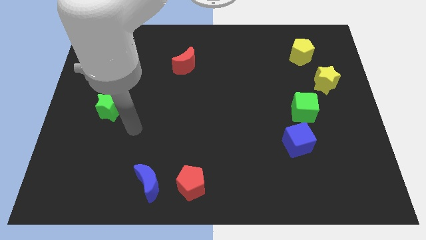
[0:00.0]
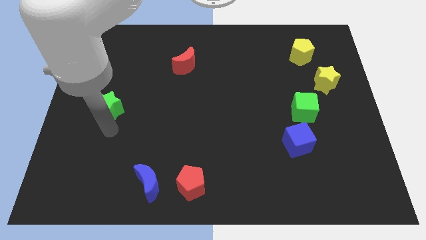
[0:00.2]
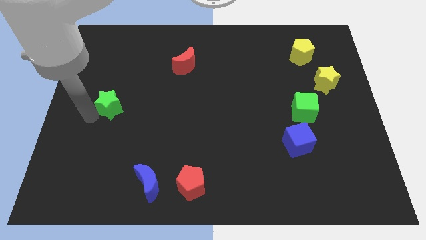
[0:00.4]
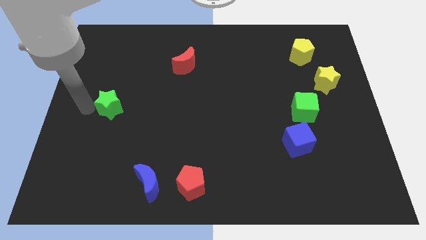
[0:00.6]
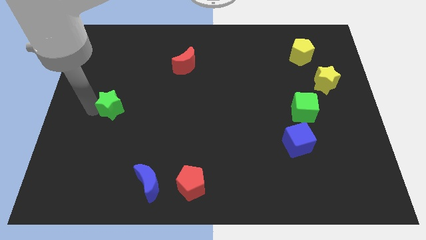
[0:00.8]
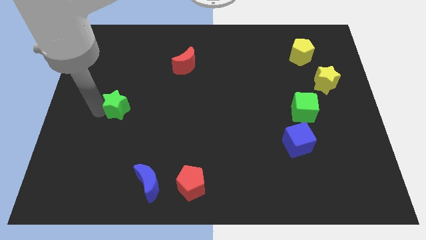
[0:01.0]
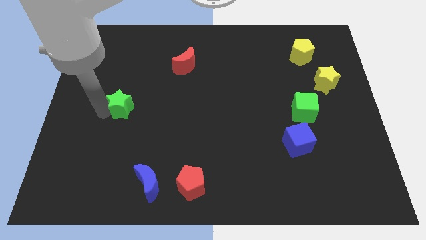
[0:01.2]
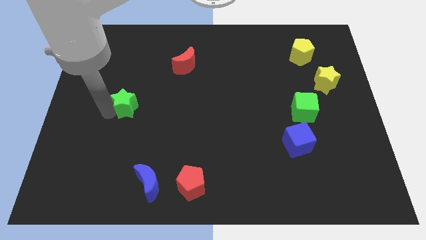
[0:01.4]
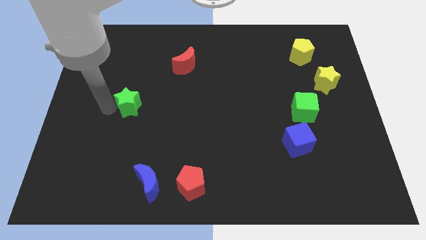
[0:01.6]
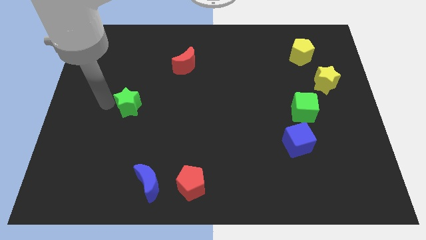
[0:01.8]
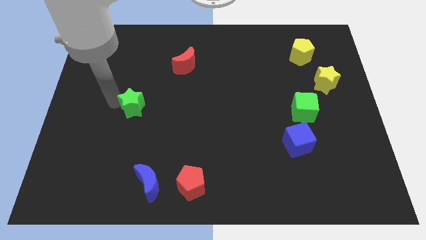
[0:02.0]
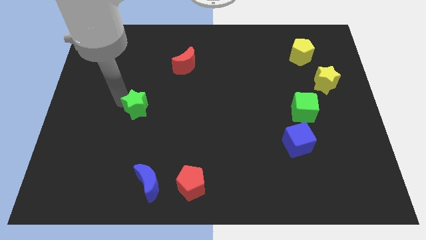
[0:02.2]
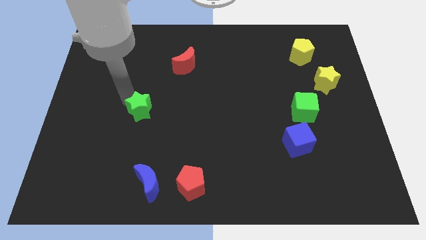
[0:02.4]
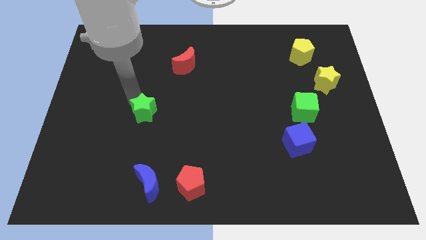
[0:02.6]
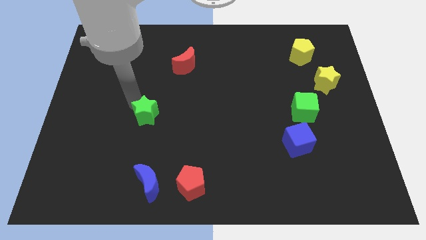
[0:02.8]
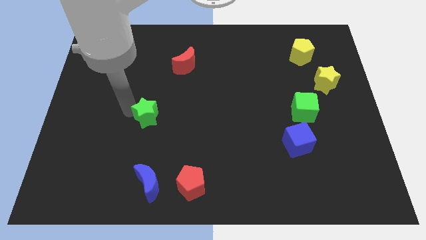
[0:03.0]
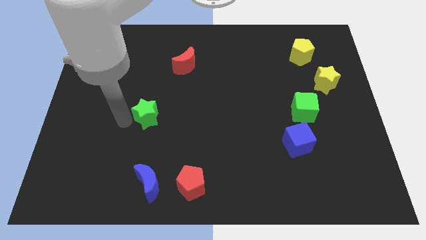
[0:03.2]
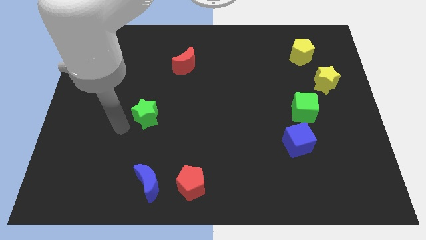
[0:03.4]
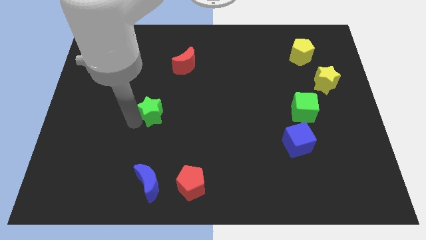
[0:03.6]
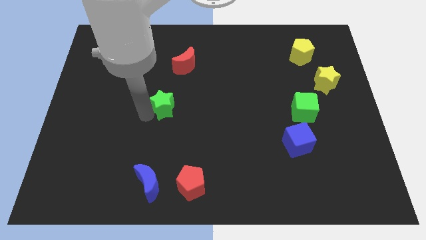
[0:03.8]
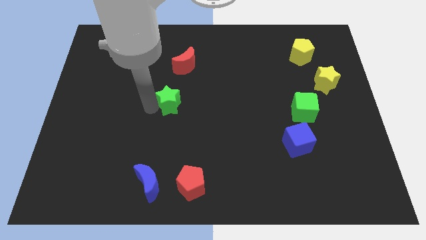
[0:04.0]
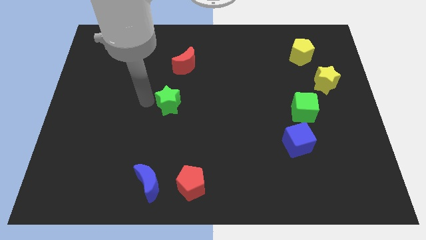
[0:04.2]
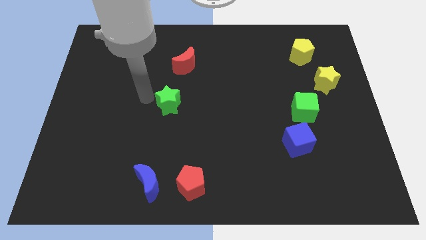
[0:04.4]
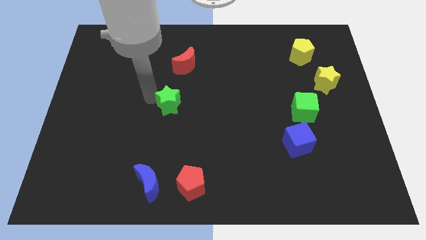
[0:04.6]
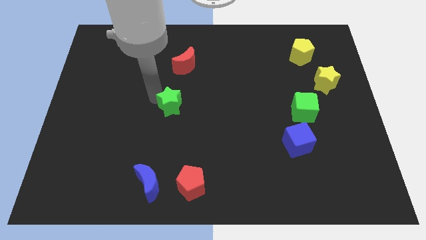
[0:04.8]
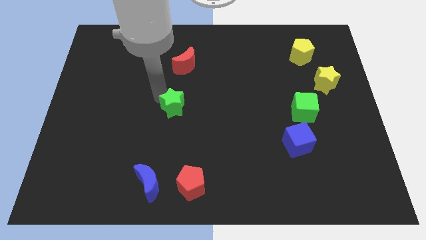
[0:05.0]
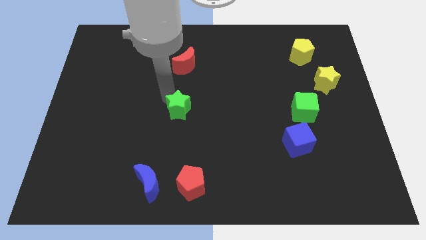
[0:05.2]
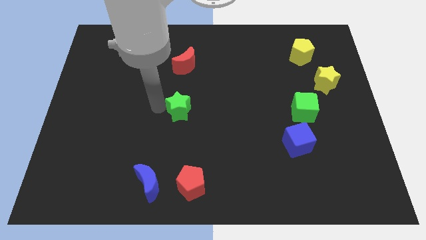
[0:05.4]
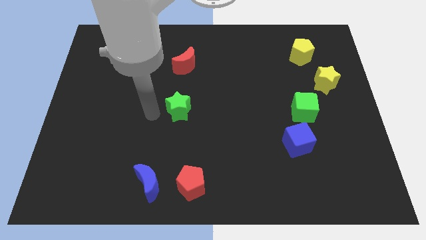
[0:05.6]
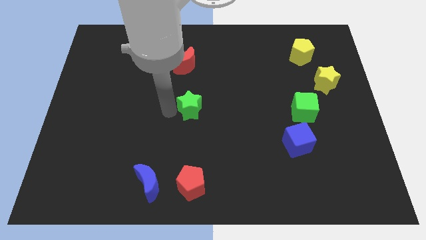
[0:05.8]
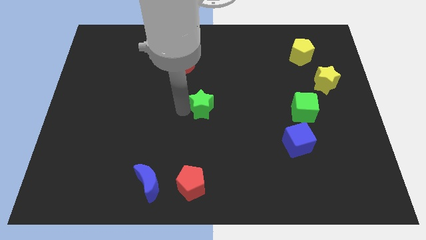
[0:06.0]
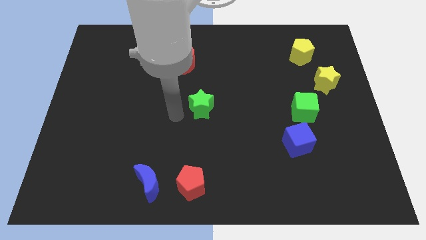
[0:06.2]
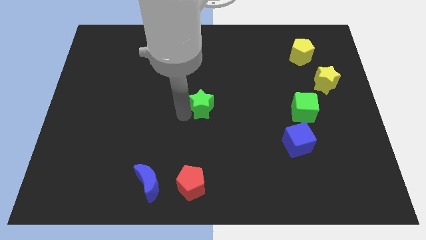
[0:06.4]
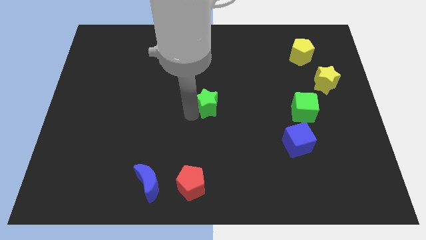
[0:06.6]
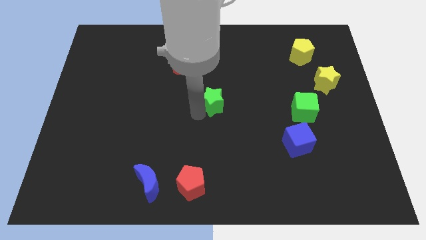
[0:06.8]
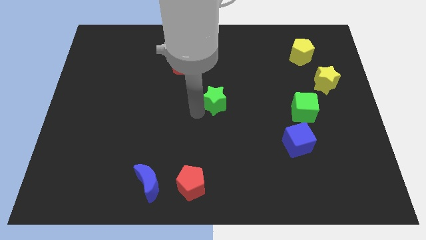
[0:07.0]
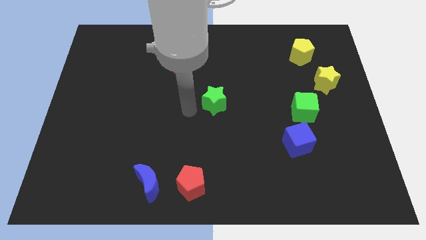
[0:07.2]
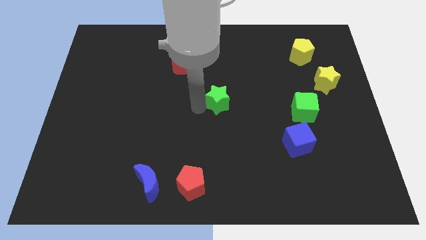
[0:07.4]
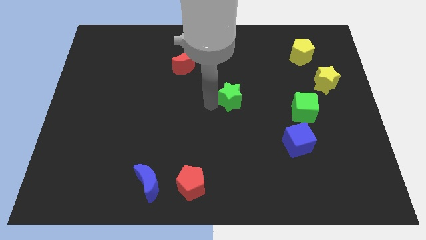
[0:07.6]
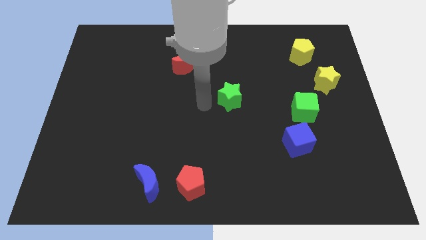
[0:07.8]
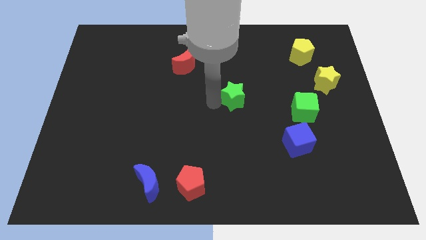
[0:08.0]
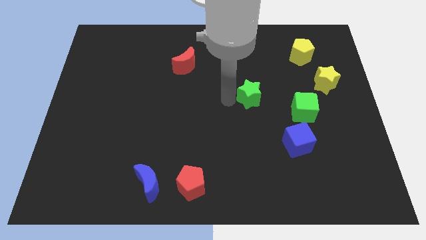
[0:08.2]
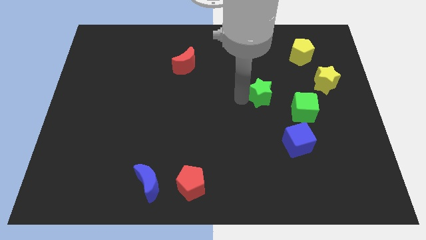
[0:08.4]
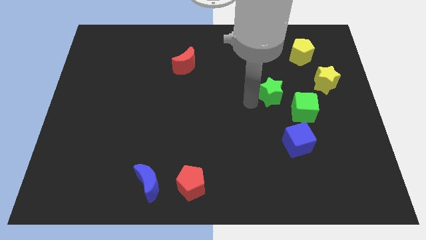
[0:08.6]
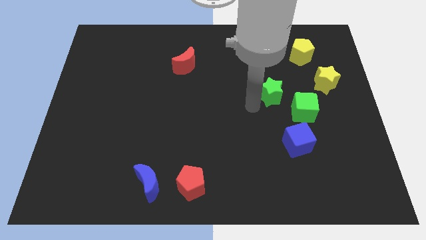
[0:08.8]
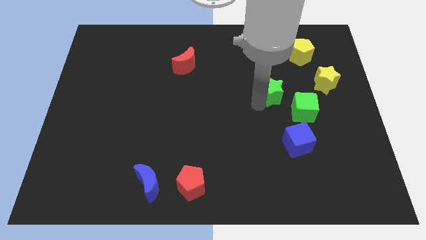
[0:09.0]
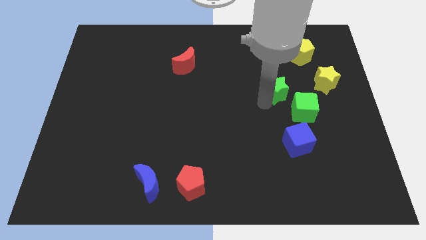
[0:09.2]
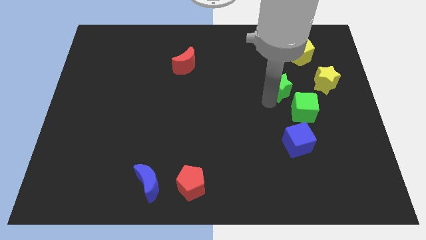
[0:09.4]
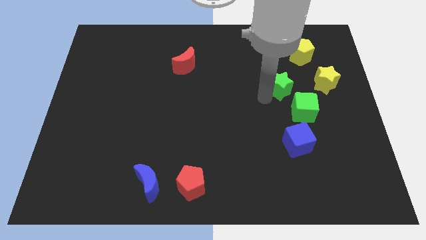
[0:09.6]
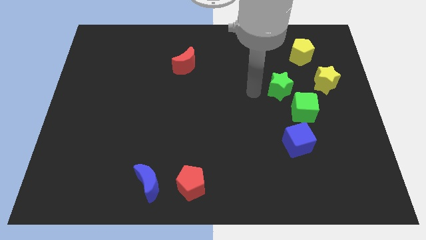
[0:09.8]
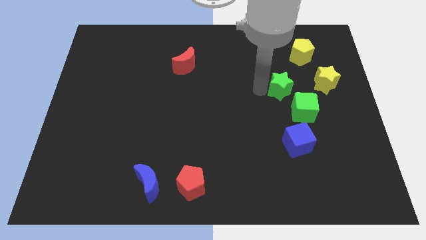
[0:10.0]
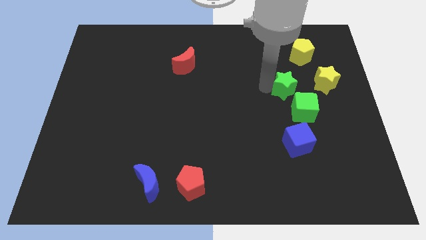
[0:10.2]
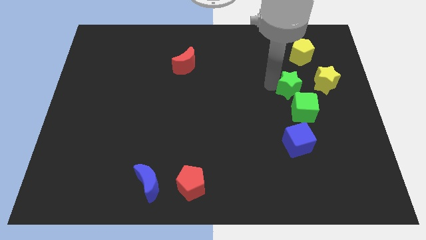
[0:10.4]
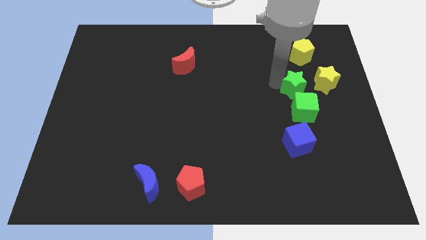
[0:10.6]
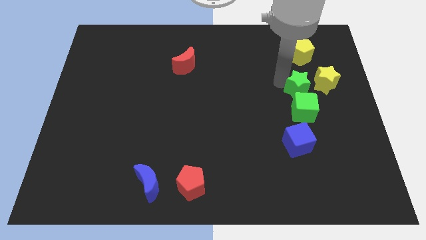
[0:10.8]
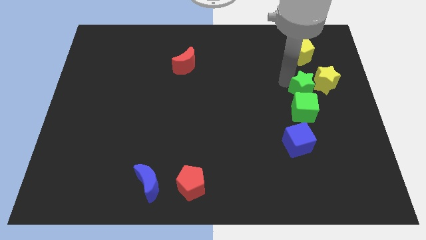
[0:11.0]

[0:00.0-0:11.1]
push the green star close to the yellow star
